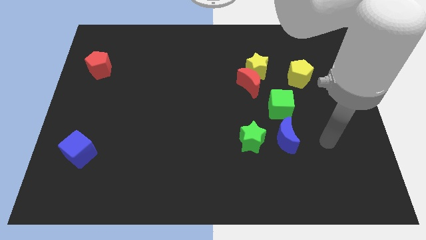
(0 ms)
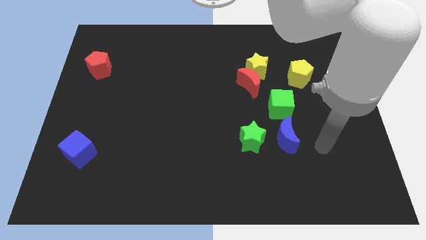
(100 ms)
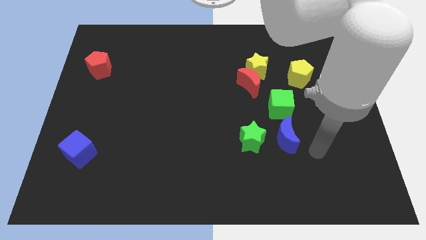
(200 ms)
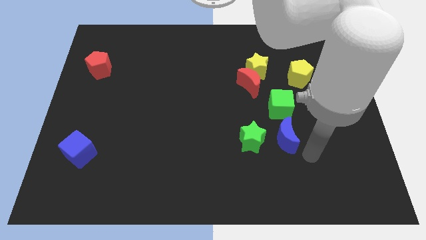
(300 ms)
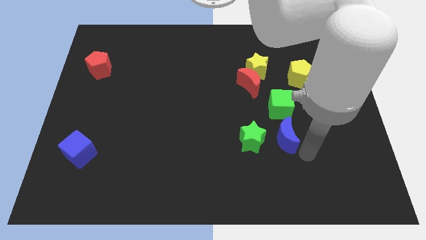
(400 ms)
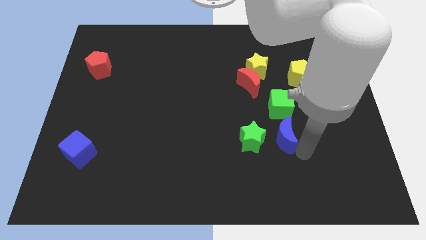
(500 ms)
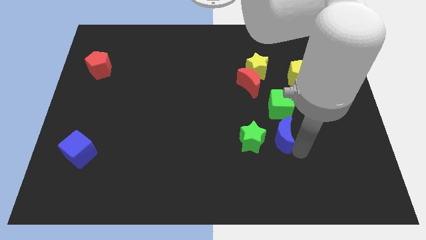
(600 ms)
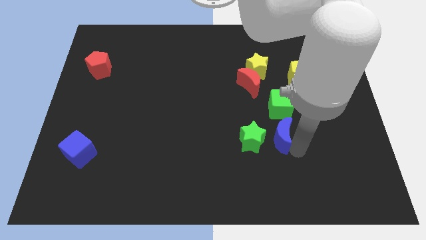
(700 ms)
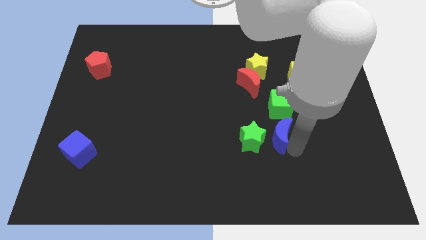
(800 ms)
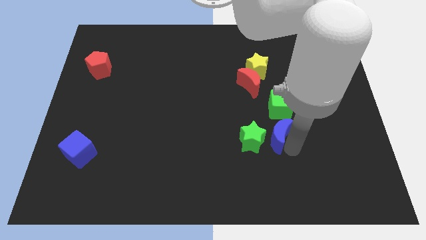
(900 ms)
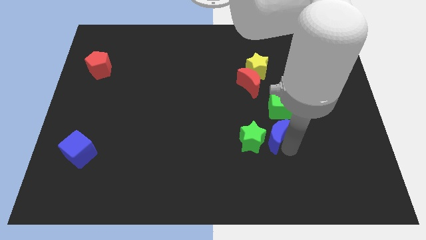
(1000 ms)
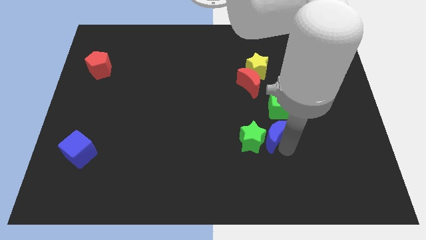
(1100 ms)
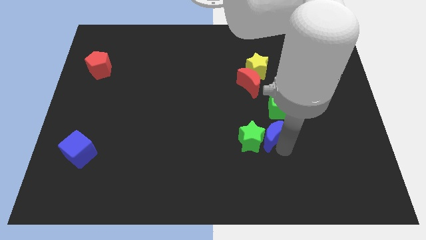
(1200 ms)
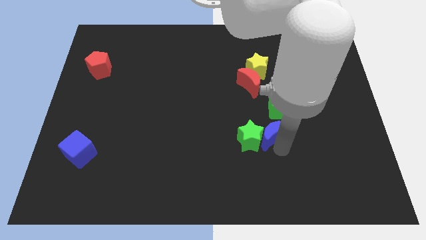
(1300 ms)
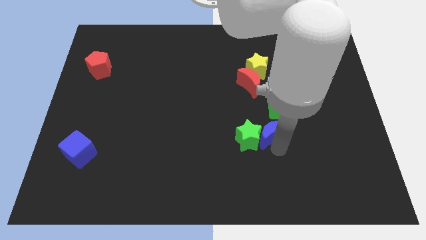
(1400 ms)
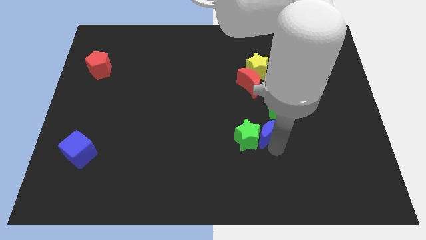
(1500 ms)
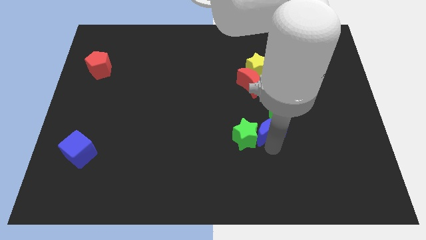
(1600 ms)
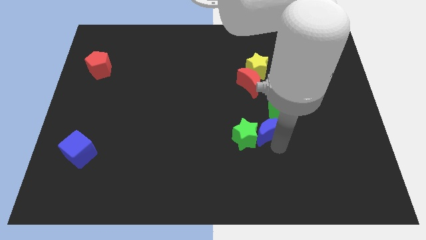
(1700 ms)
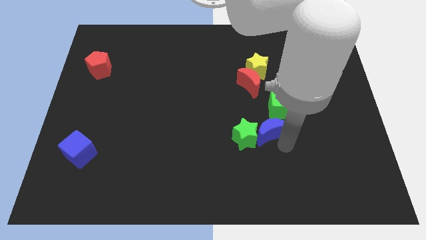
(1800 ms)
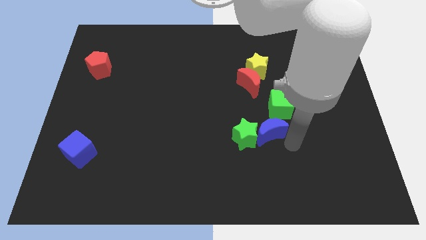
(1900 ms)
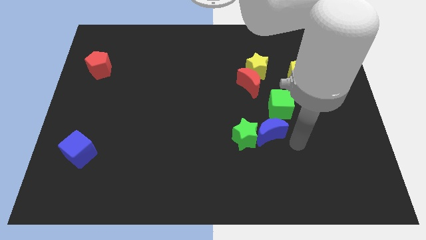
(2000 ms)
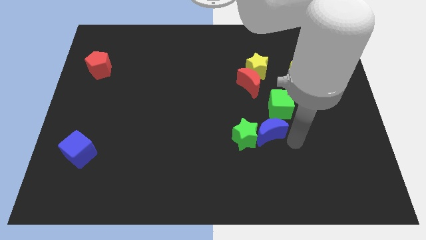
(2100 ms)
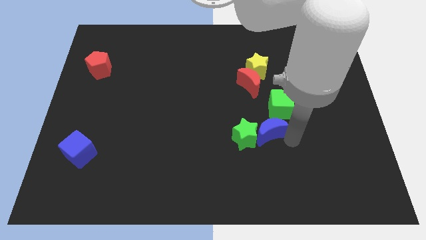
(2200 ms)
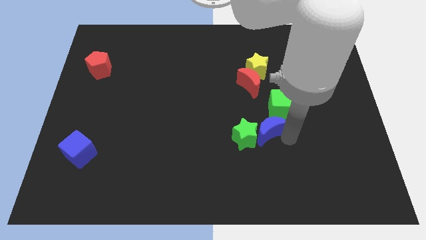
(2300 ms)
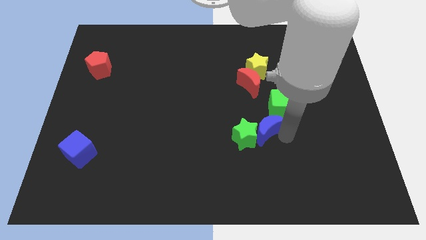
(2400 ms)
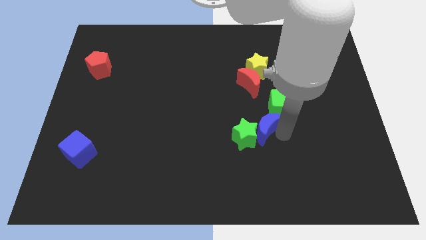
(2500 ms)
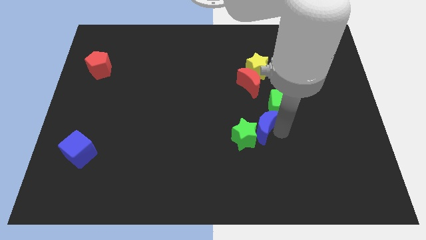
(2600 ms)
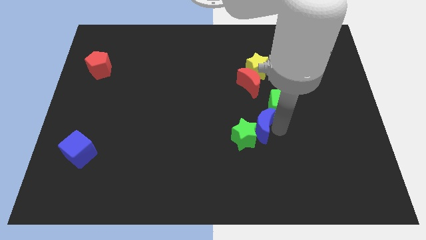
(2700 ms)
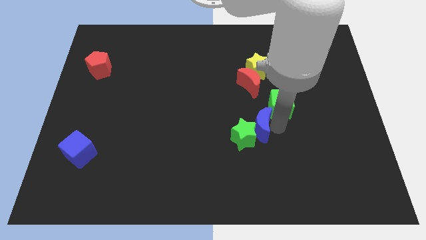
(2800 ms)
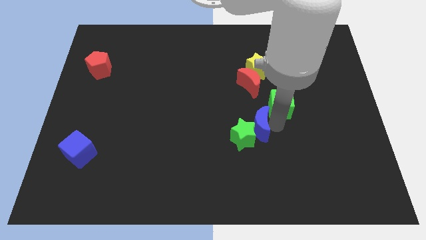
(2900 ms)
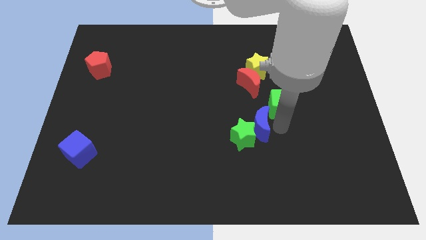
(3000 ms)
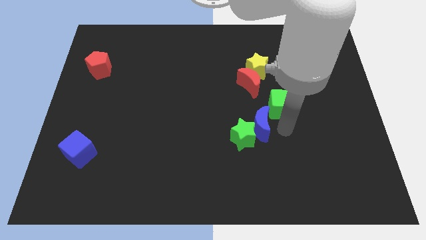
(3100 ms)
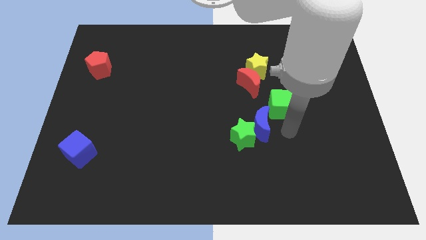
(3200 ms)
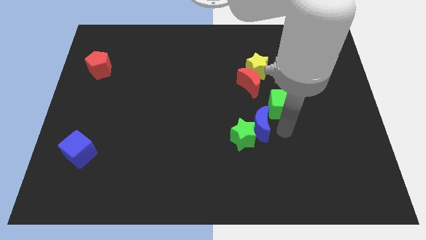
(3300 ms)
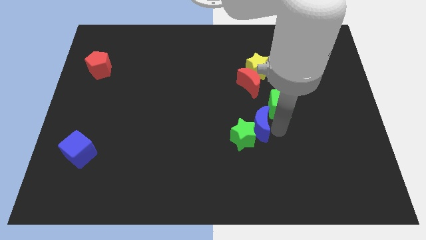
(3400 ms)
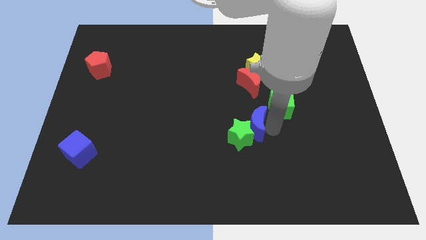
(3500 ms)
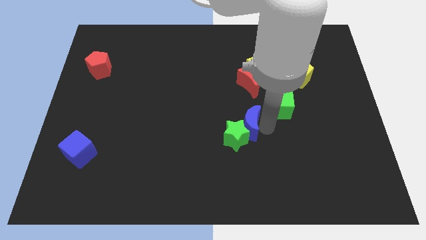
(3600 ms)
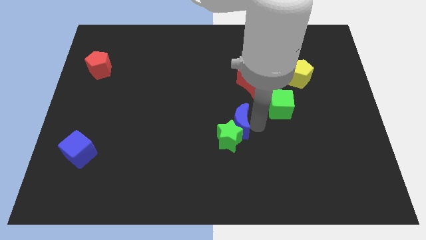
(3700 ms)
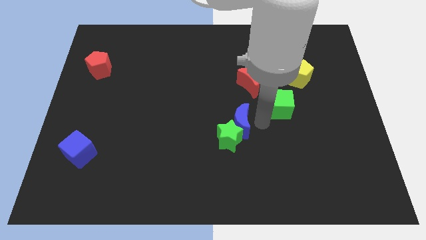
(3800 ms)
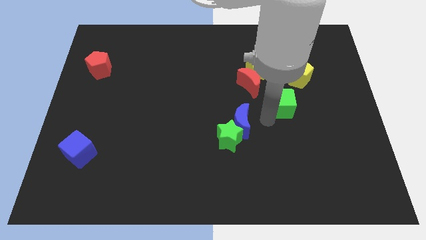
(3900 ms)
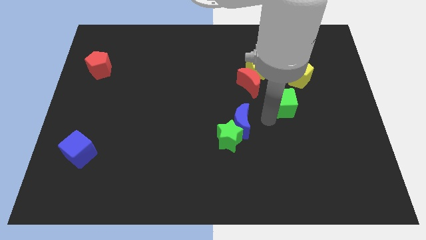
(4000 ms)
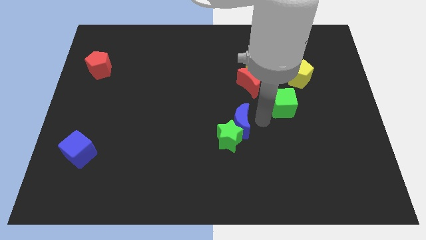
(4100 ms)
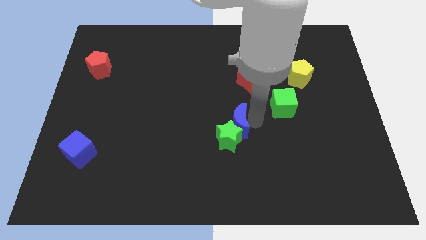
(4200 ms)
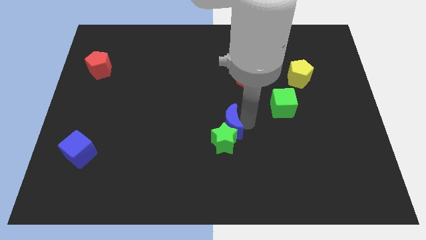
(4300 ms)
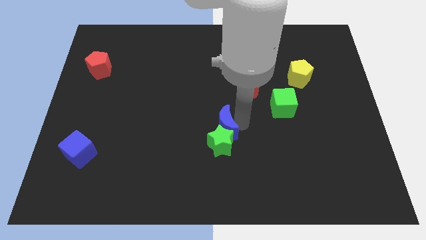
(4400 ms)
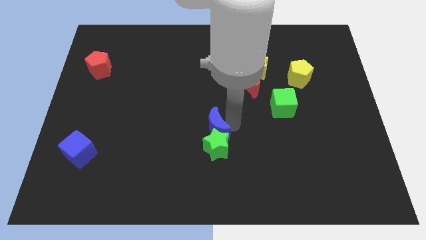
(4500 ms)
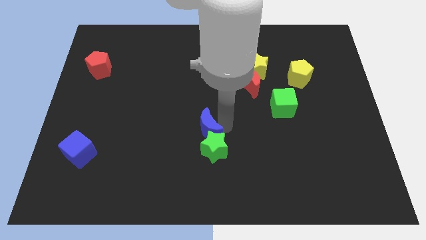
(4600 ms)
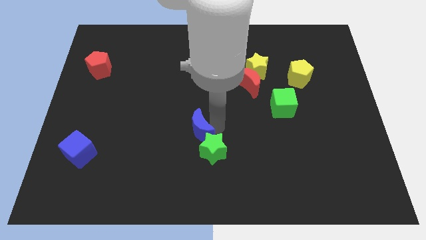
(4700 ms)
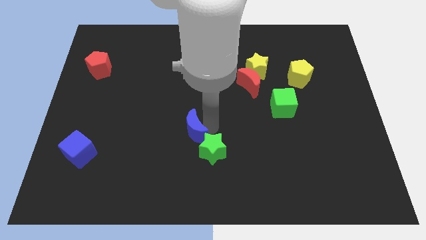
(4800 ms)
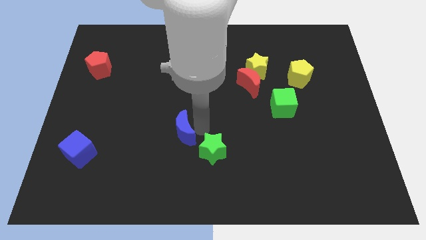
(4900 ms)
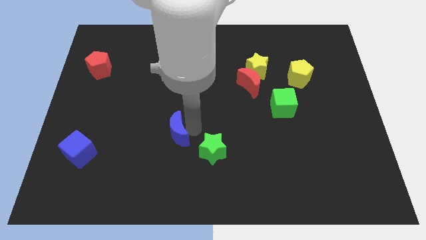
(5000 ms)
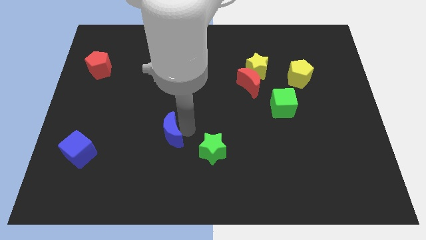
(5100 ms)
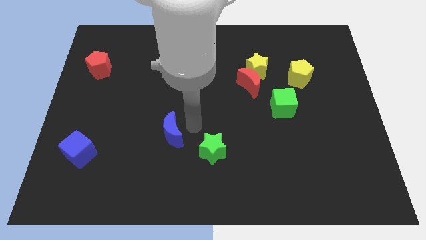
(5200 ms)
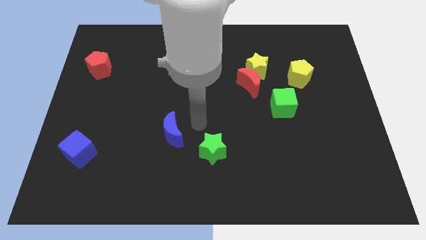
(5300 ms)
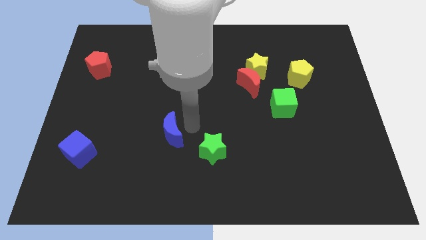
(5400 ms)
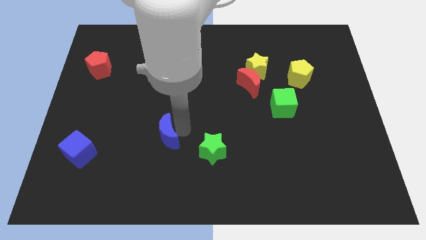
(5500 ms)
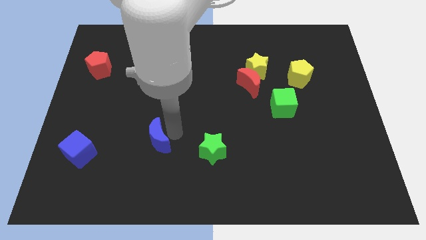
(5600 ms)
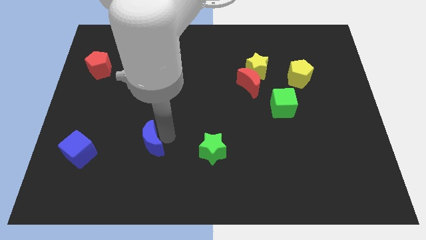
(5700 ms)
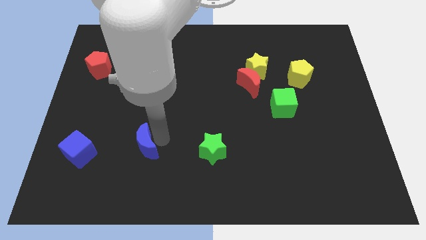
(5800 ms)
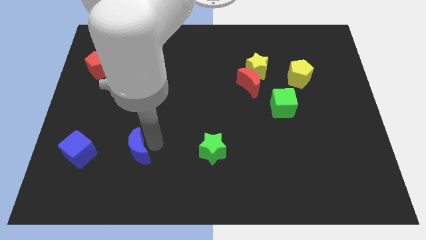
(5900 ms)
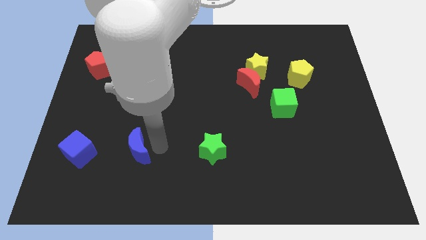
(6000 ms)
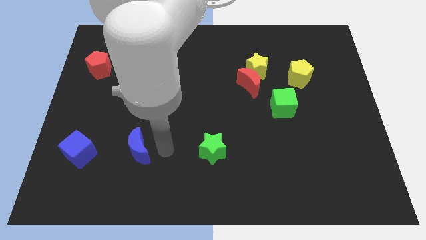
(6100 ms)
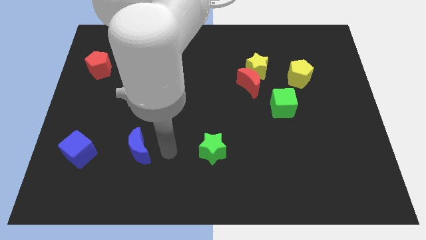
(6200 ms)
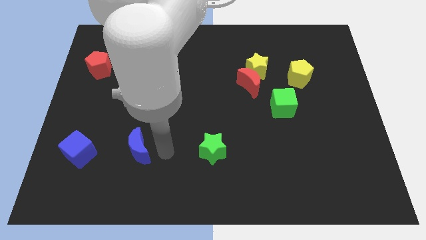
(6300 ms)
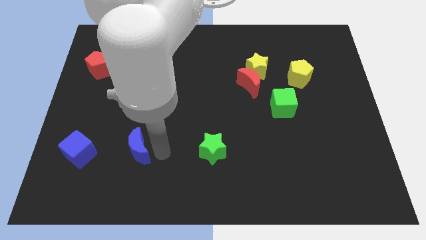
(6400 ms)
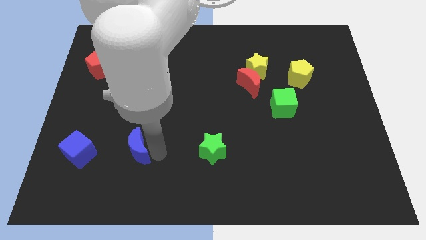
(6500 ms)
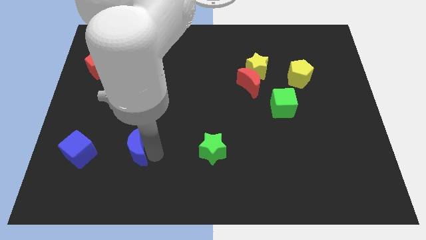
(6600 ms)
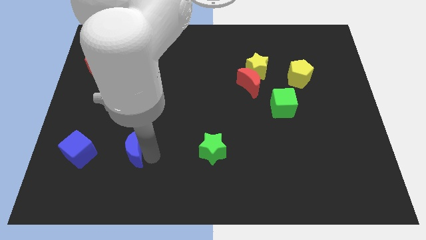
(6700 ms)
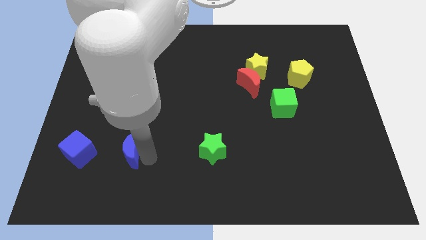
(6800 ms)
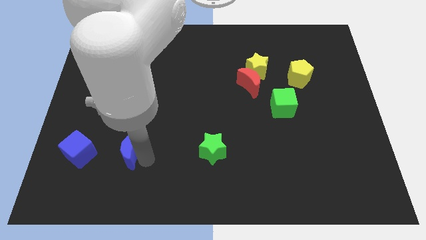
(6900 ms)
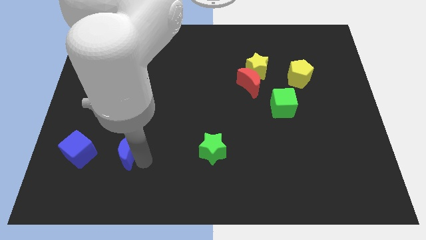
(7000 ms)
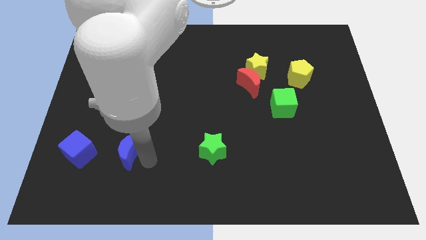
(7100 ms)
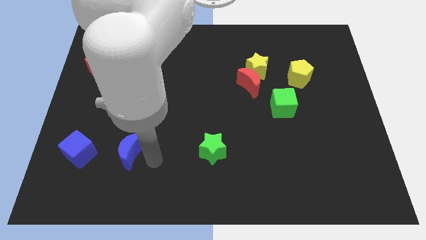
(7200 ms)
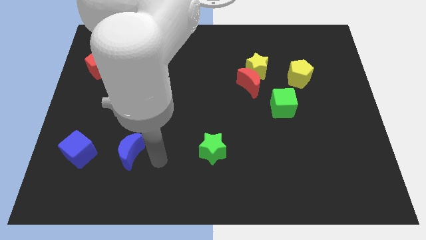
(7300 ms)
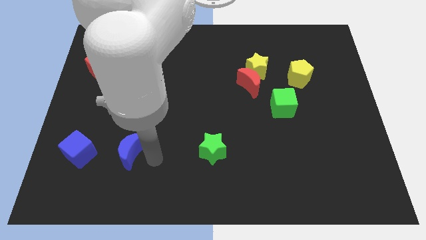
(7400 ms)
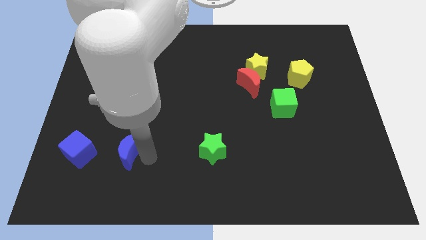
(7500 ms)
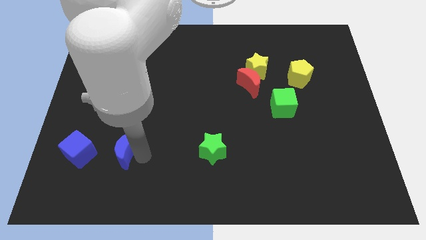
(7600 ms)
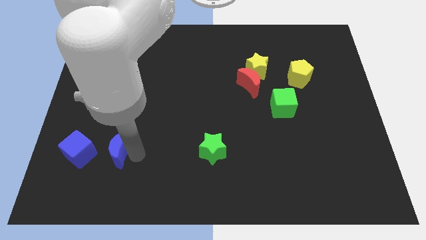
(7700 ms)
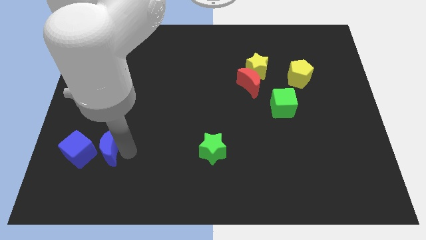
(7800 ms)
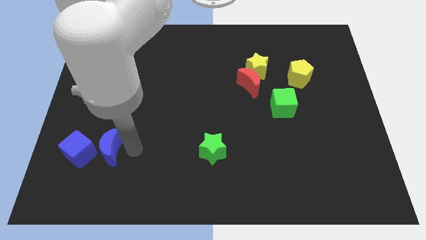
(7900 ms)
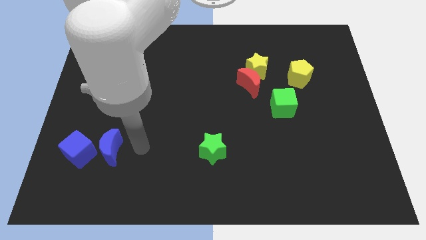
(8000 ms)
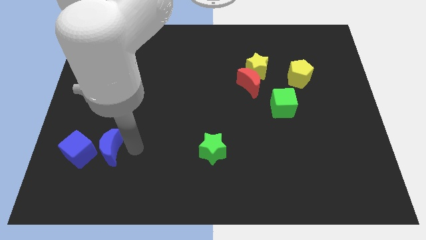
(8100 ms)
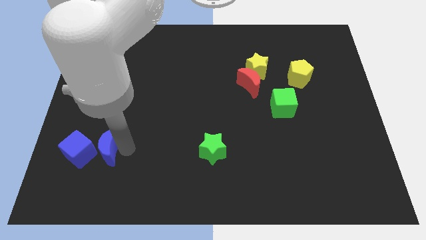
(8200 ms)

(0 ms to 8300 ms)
move the blue moon next to the blue cube

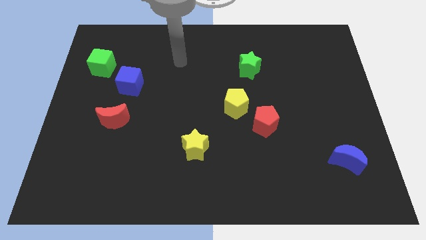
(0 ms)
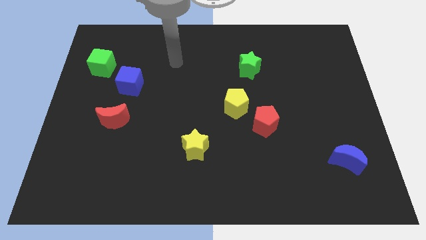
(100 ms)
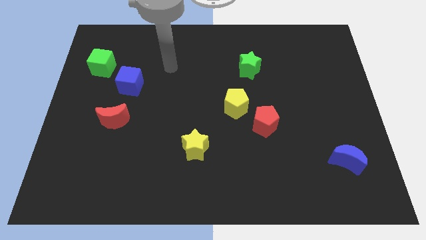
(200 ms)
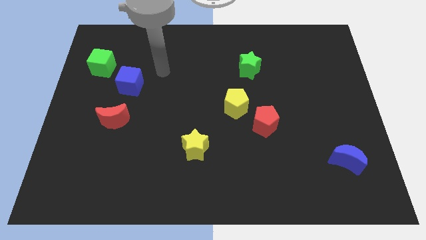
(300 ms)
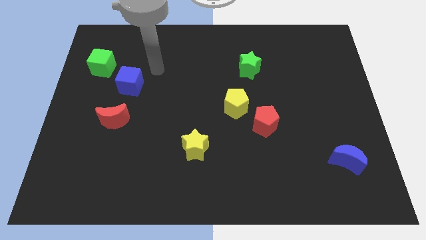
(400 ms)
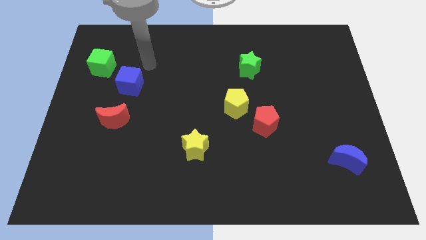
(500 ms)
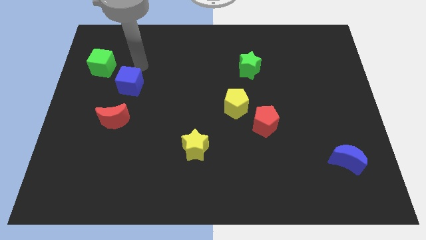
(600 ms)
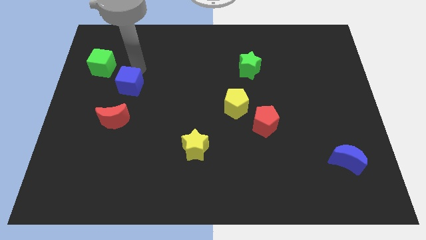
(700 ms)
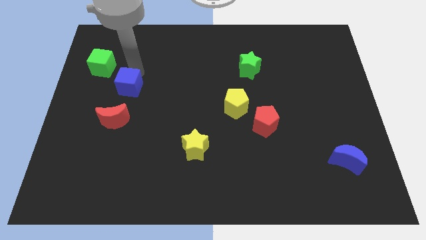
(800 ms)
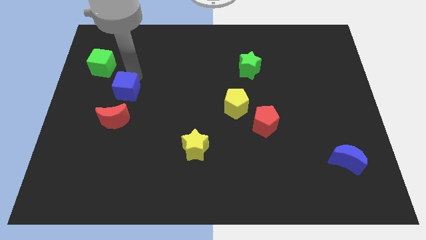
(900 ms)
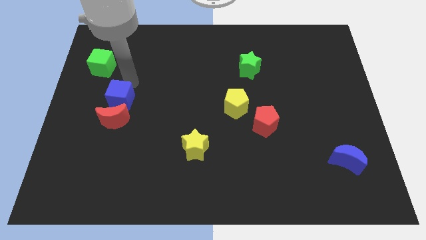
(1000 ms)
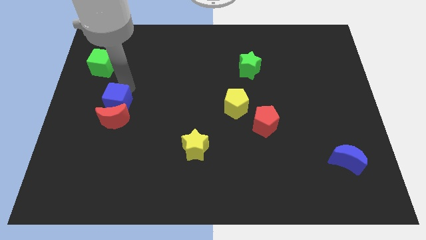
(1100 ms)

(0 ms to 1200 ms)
move the blue cube to the red moon
